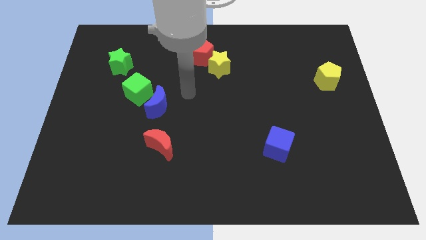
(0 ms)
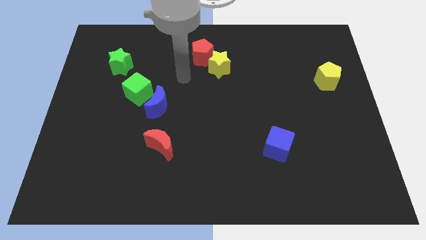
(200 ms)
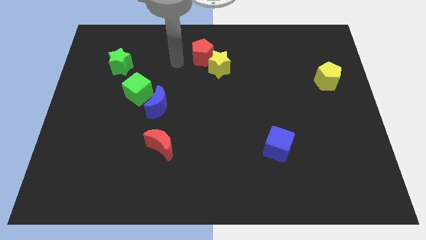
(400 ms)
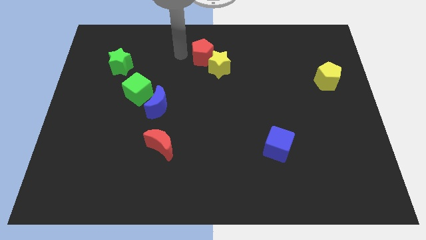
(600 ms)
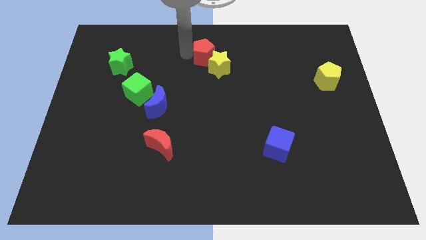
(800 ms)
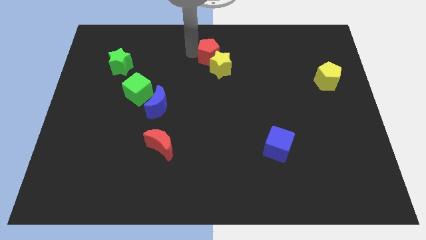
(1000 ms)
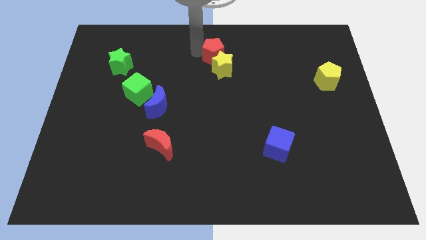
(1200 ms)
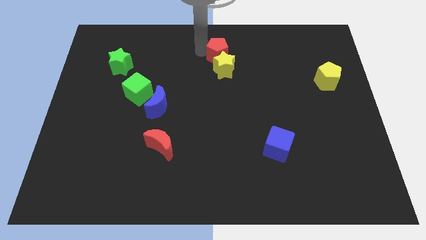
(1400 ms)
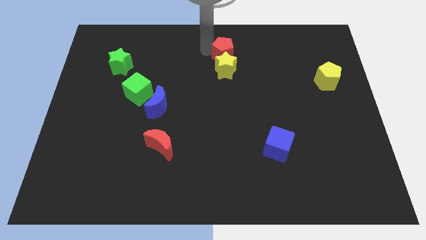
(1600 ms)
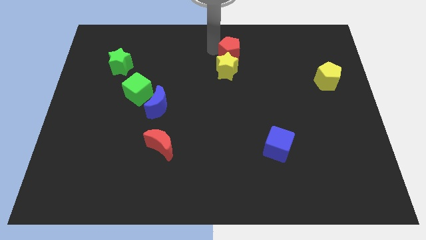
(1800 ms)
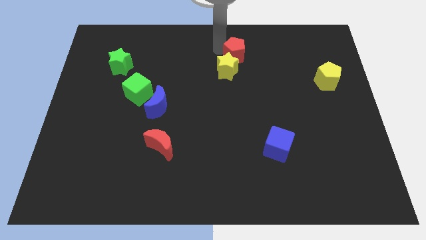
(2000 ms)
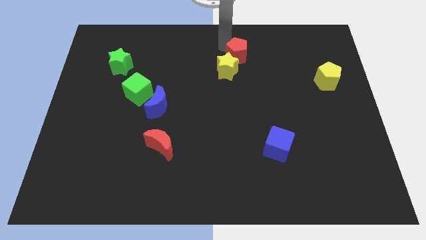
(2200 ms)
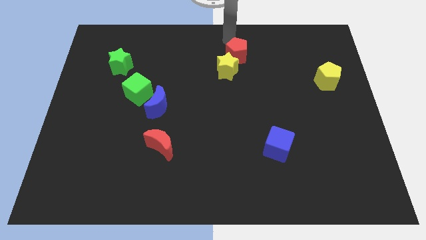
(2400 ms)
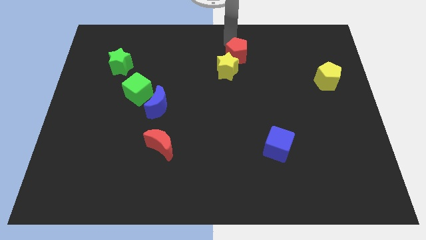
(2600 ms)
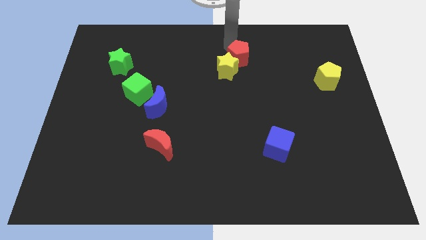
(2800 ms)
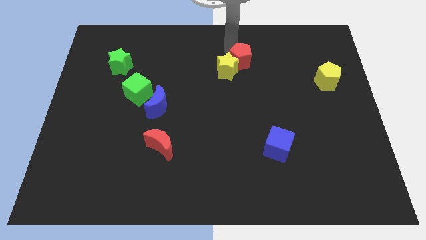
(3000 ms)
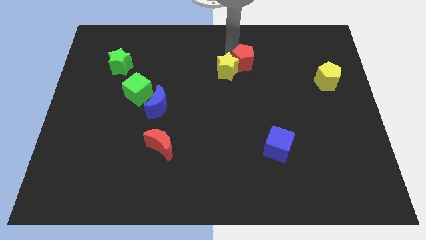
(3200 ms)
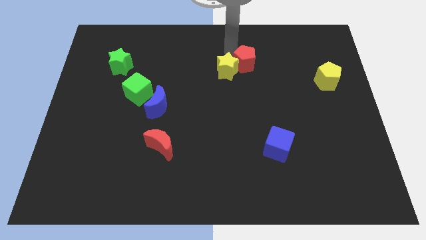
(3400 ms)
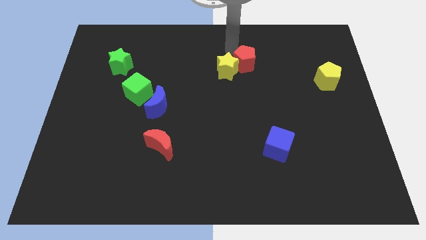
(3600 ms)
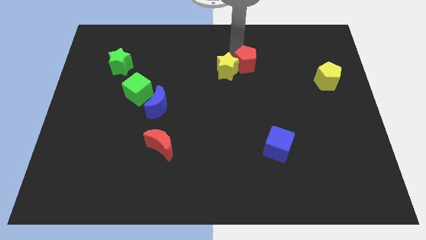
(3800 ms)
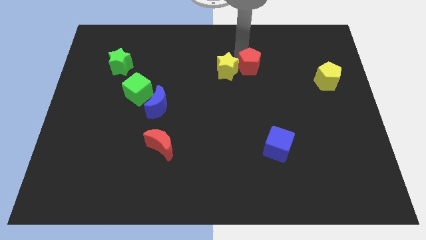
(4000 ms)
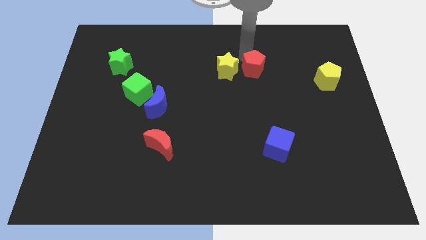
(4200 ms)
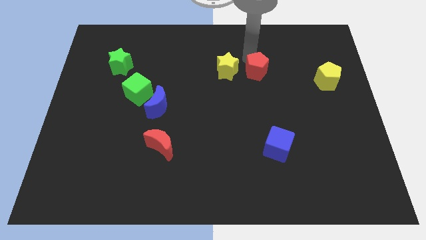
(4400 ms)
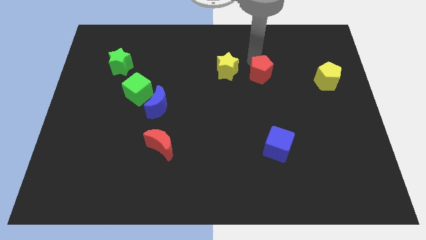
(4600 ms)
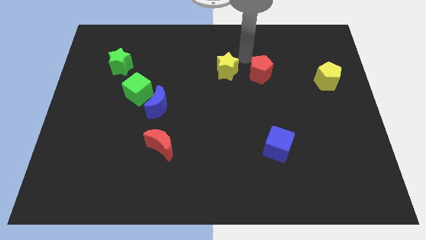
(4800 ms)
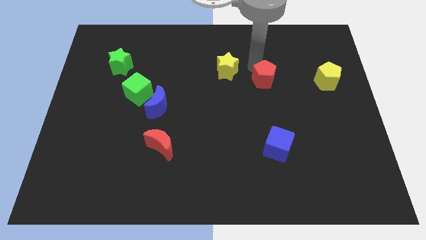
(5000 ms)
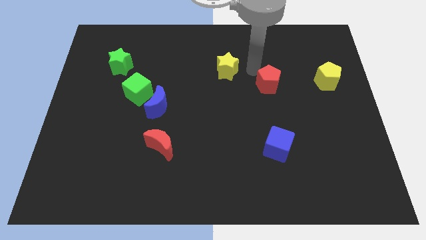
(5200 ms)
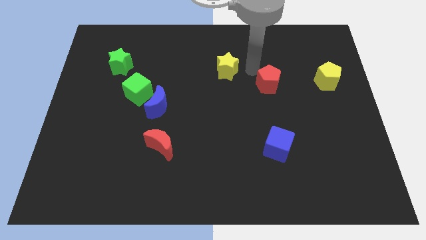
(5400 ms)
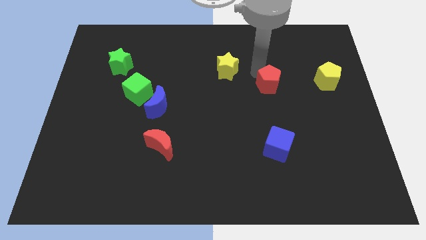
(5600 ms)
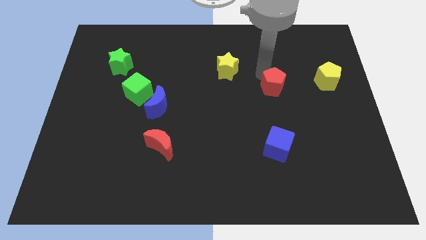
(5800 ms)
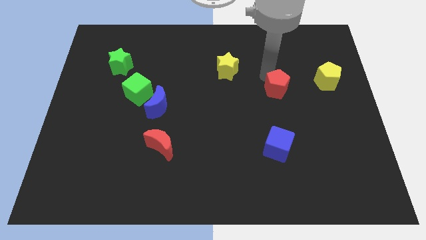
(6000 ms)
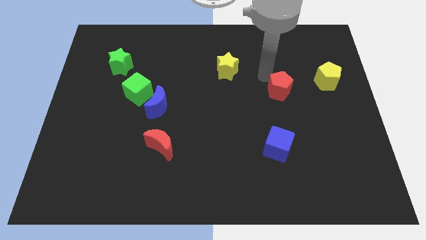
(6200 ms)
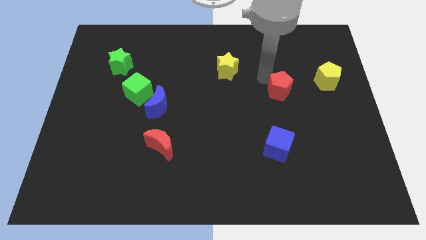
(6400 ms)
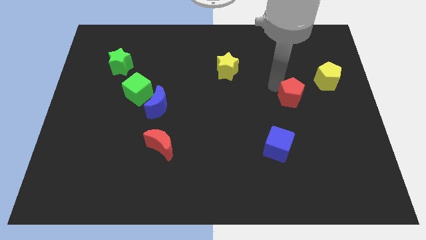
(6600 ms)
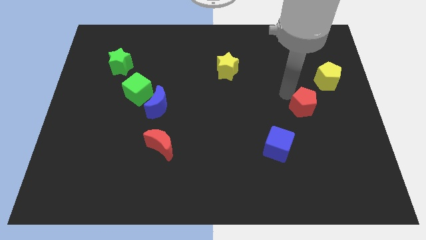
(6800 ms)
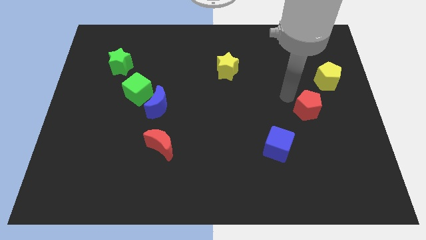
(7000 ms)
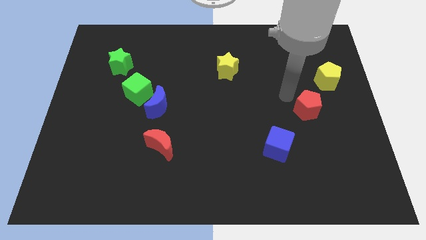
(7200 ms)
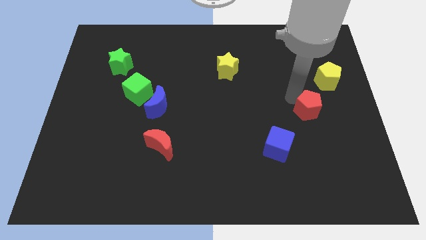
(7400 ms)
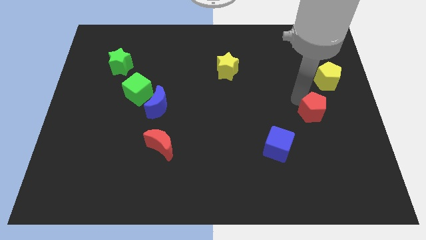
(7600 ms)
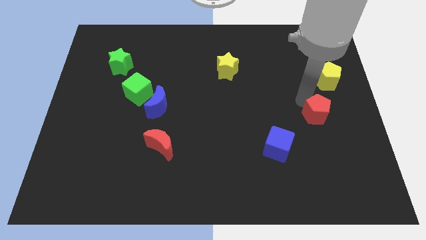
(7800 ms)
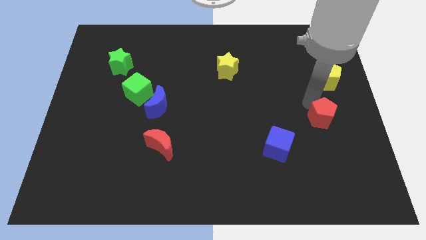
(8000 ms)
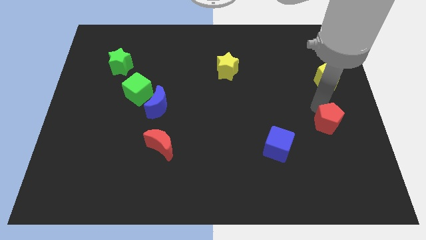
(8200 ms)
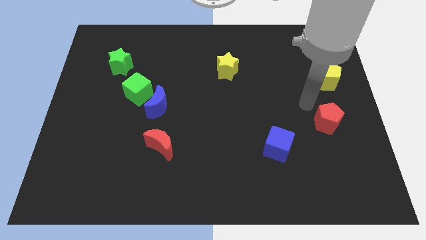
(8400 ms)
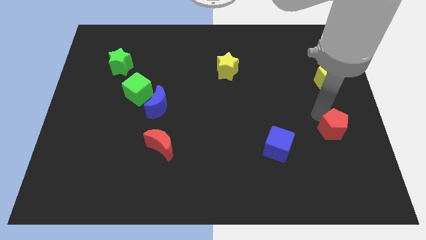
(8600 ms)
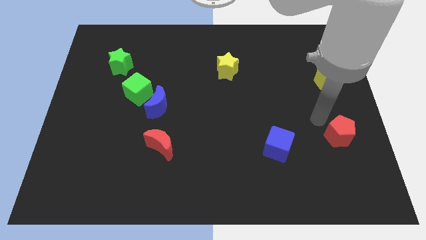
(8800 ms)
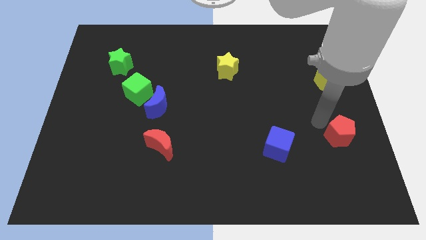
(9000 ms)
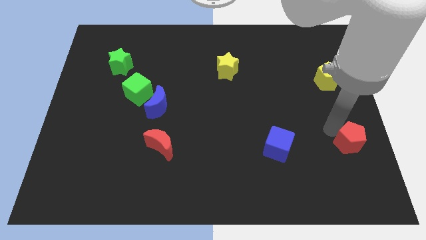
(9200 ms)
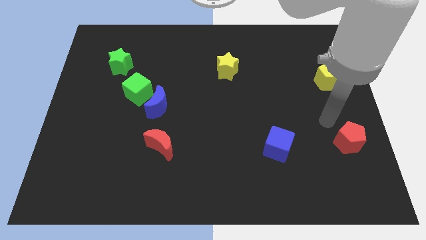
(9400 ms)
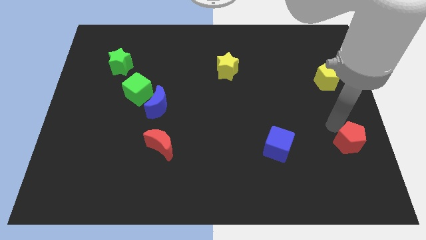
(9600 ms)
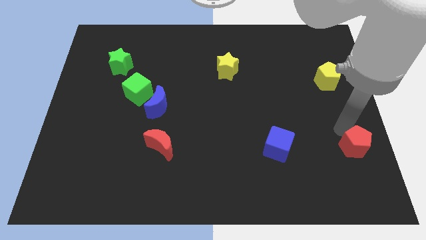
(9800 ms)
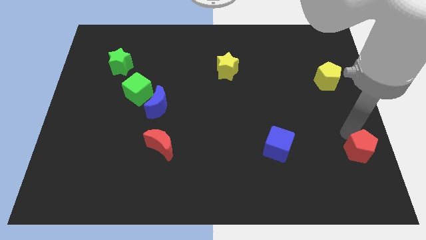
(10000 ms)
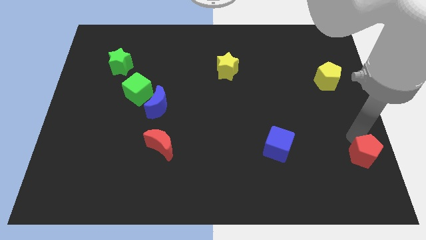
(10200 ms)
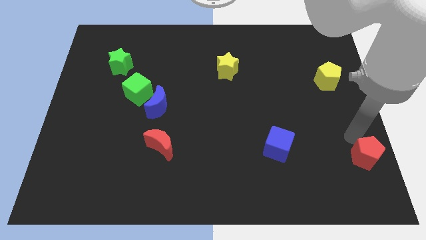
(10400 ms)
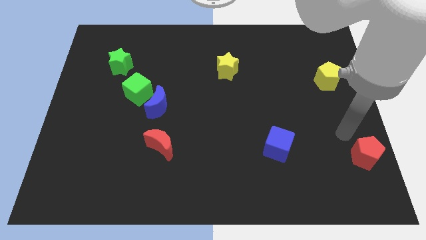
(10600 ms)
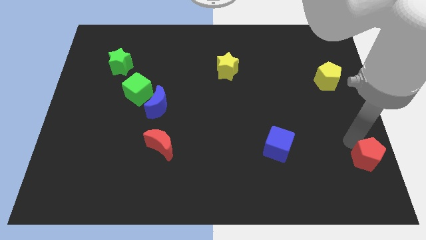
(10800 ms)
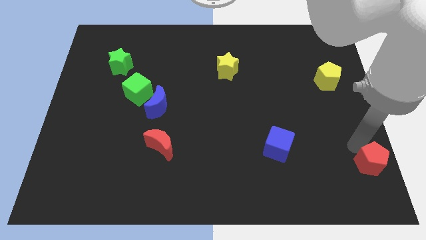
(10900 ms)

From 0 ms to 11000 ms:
put the red pentagon to the bottom right

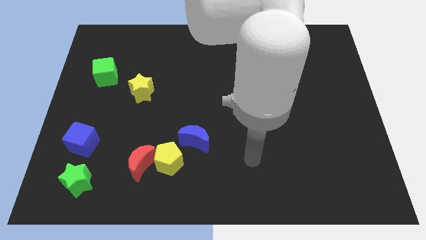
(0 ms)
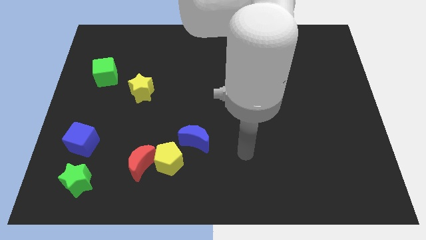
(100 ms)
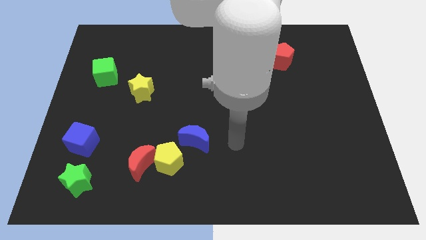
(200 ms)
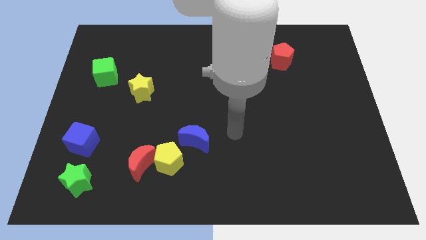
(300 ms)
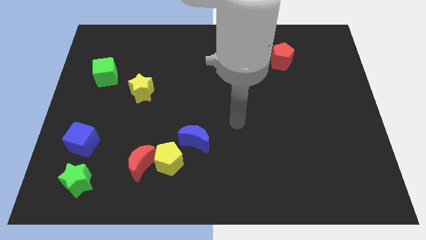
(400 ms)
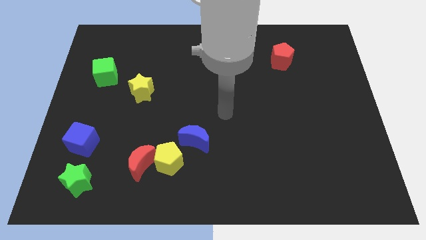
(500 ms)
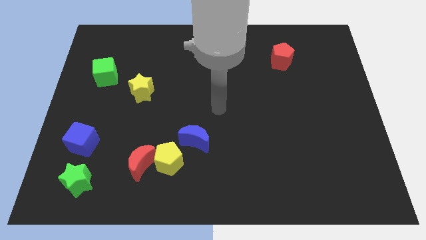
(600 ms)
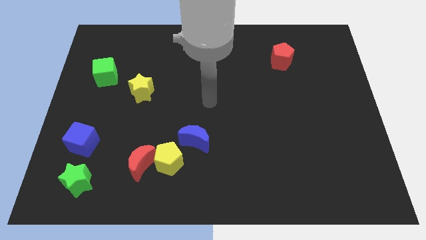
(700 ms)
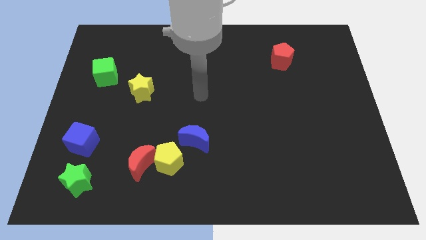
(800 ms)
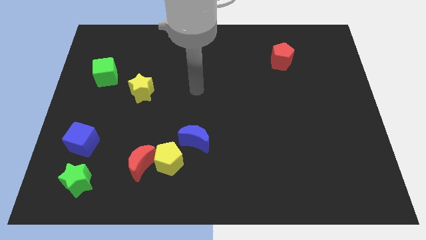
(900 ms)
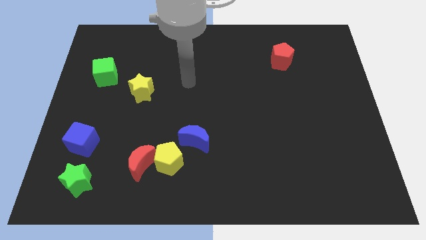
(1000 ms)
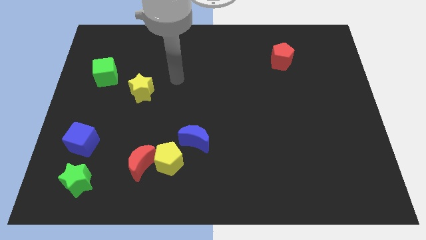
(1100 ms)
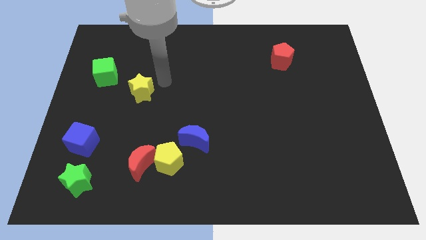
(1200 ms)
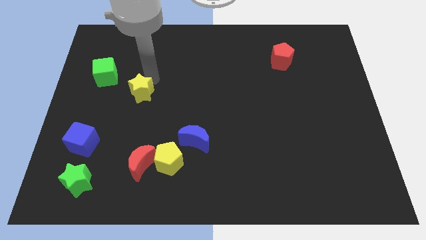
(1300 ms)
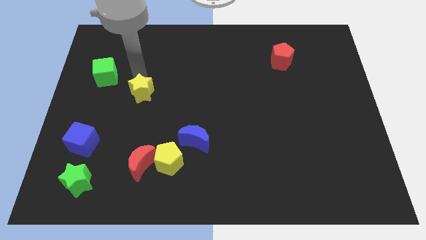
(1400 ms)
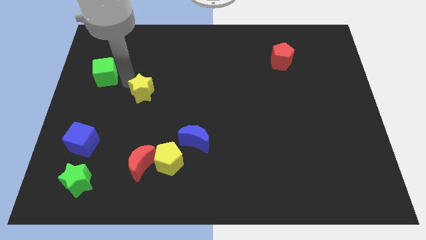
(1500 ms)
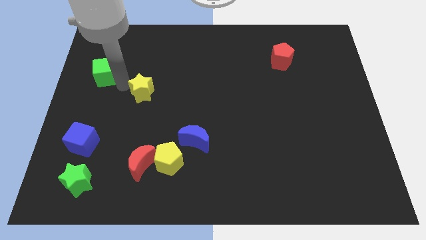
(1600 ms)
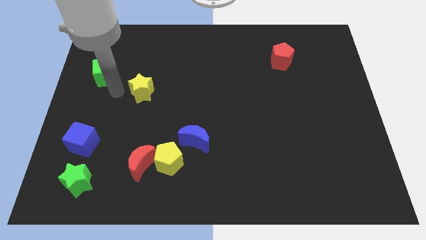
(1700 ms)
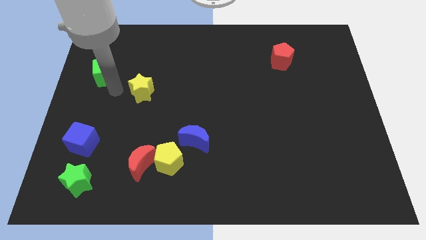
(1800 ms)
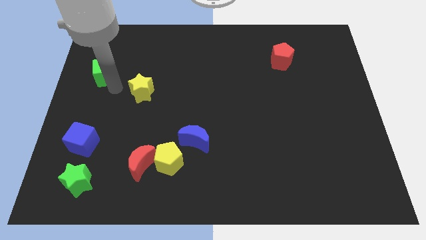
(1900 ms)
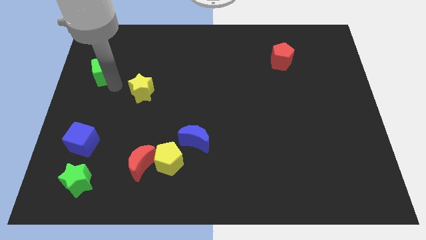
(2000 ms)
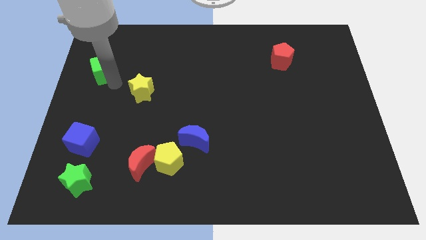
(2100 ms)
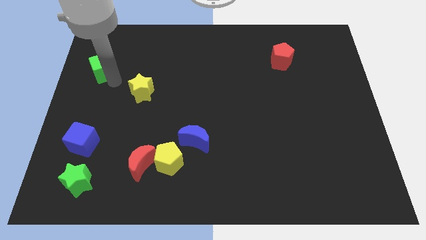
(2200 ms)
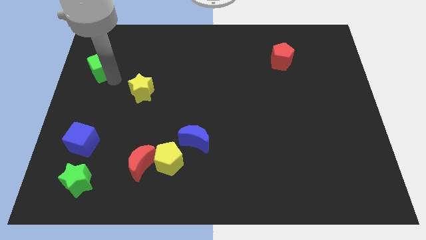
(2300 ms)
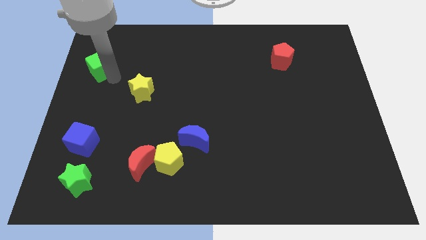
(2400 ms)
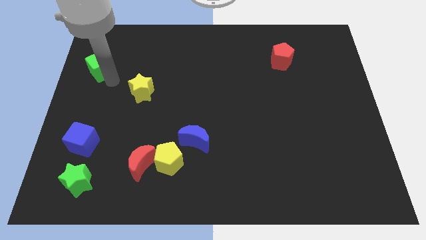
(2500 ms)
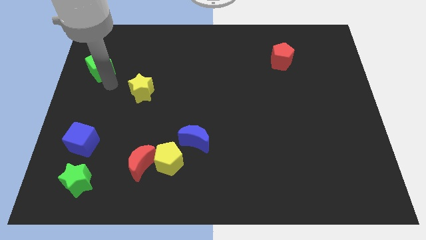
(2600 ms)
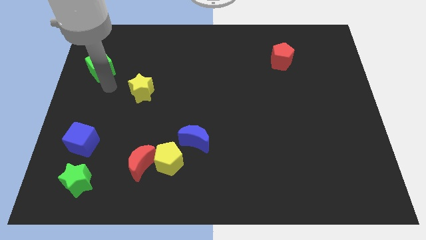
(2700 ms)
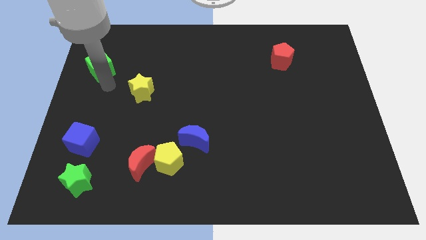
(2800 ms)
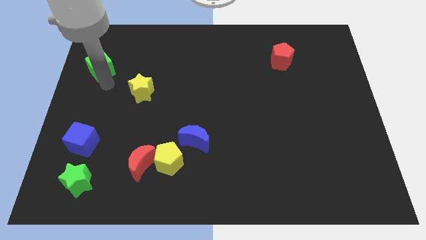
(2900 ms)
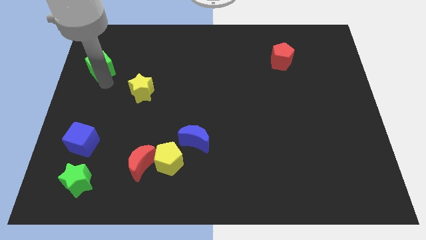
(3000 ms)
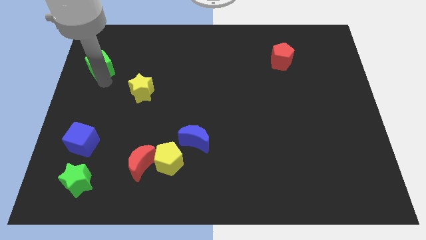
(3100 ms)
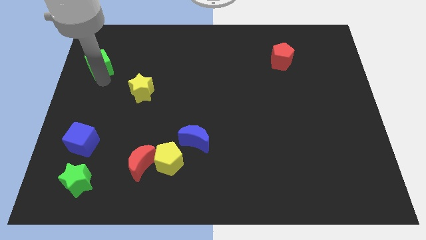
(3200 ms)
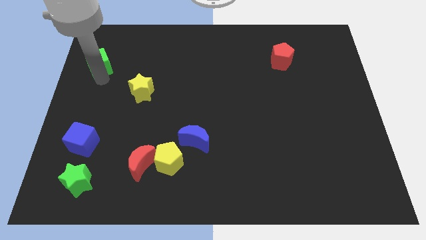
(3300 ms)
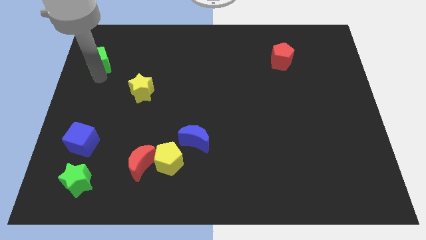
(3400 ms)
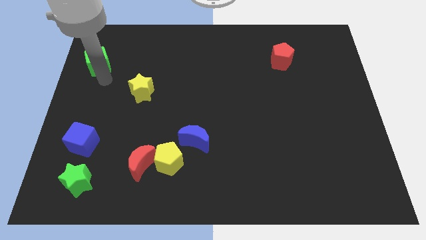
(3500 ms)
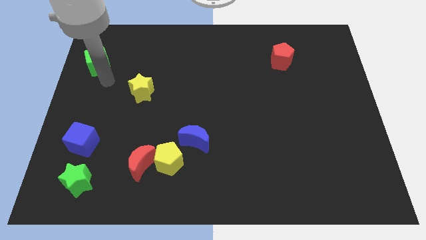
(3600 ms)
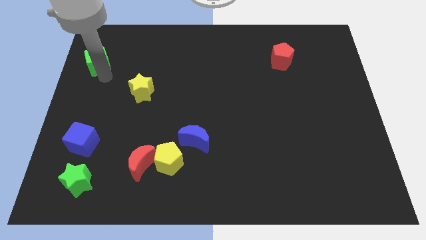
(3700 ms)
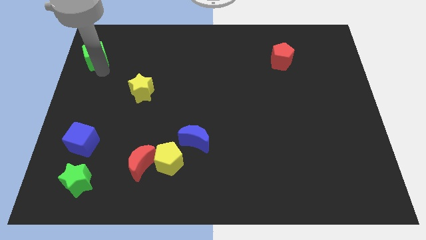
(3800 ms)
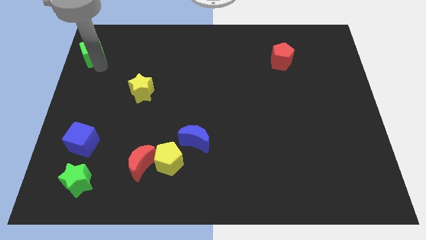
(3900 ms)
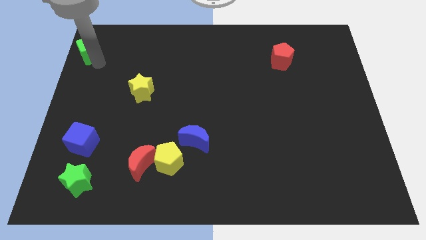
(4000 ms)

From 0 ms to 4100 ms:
move the green cube to the top left
